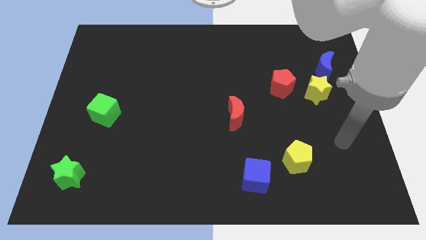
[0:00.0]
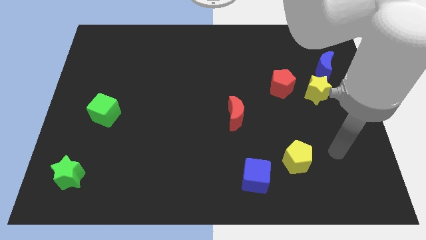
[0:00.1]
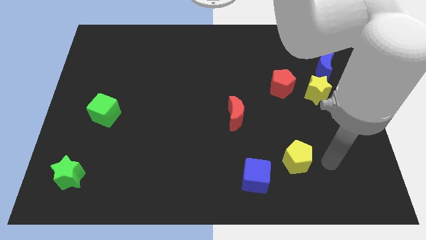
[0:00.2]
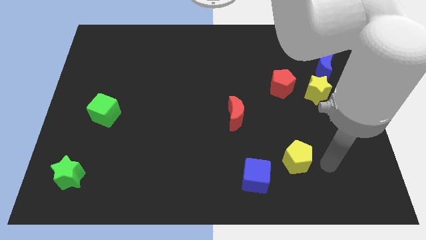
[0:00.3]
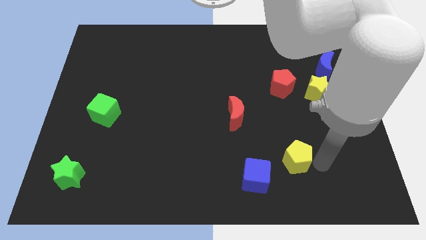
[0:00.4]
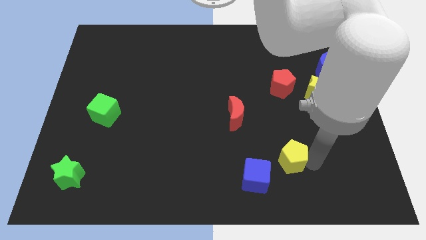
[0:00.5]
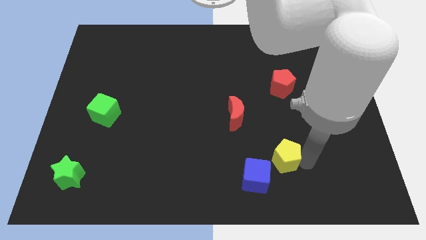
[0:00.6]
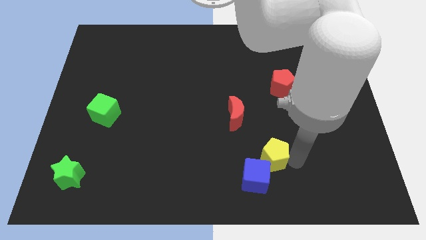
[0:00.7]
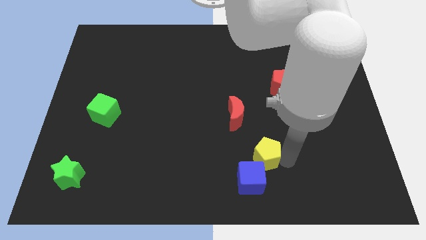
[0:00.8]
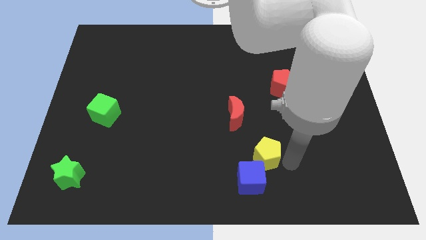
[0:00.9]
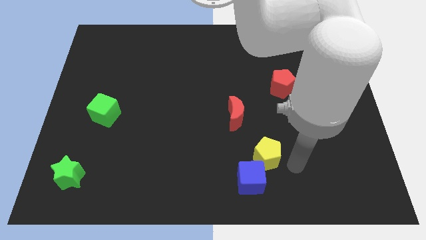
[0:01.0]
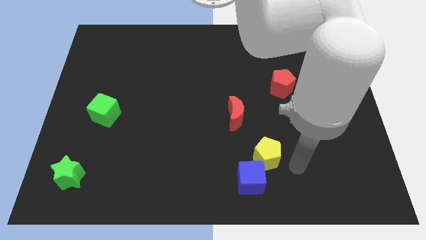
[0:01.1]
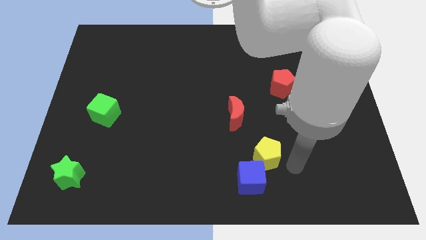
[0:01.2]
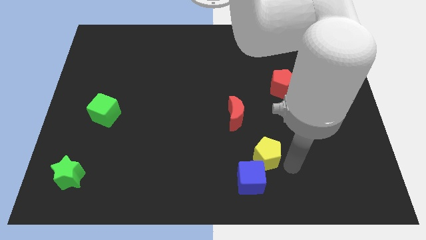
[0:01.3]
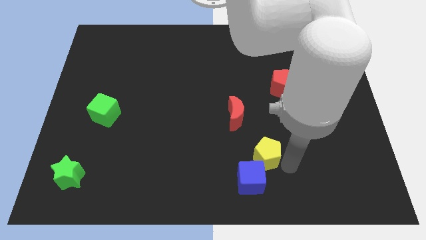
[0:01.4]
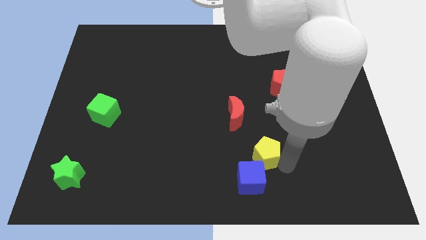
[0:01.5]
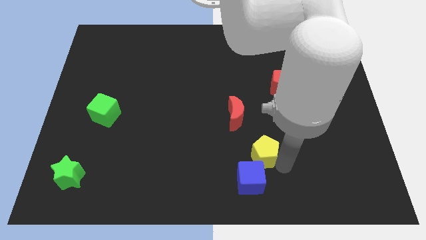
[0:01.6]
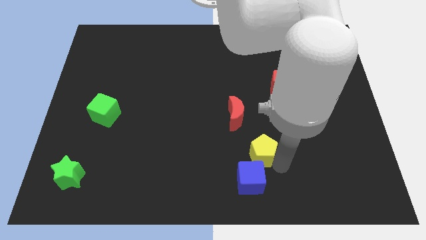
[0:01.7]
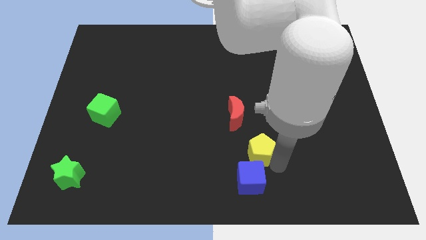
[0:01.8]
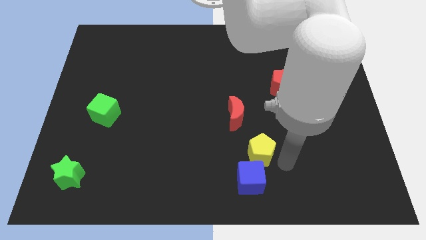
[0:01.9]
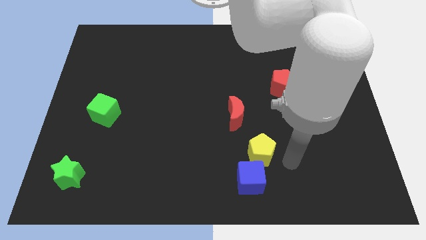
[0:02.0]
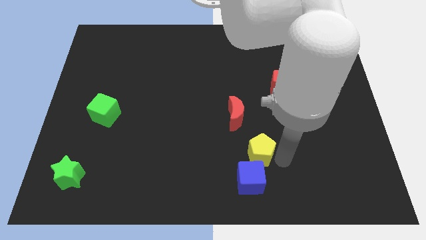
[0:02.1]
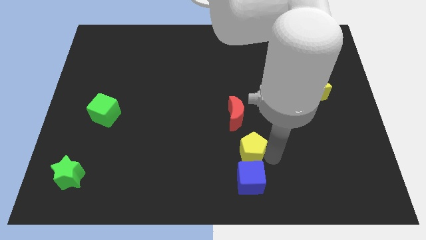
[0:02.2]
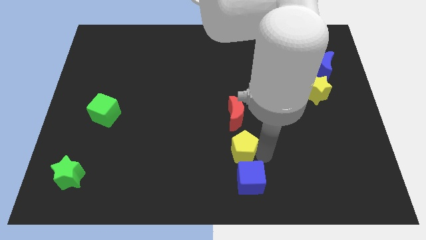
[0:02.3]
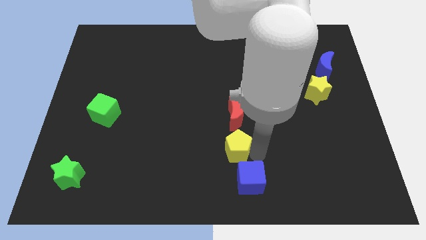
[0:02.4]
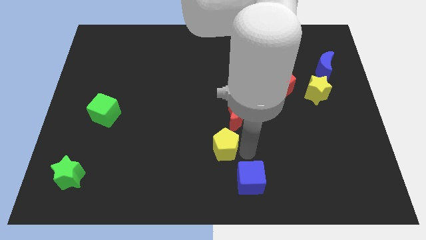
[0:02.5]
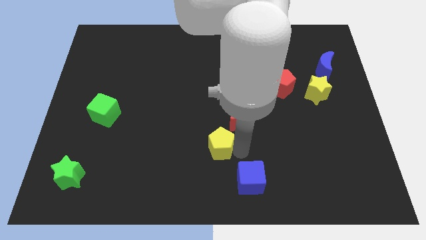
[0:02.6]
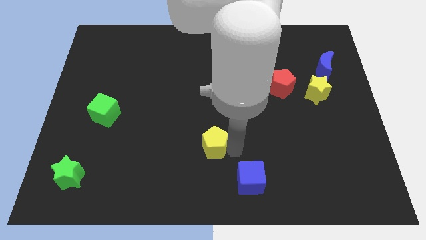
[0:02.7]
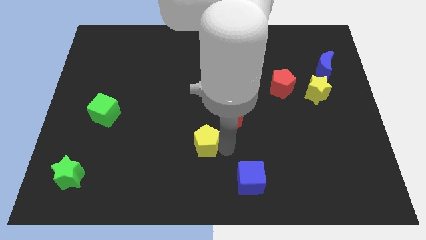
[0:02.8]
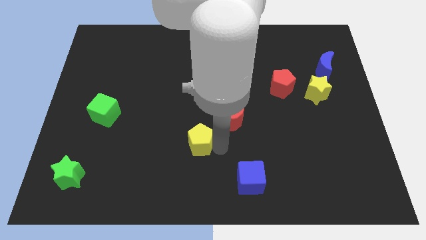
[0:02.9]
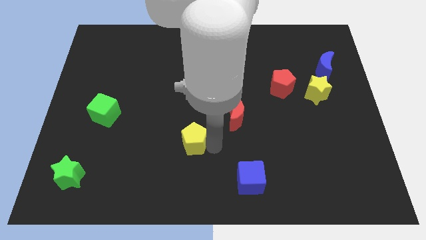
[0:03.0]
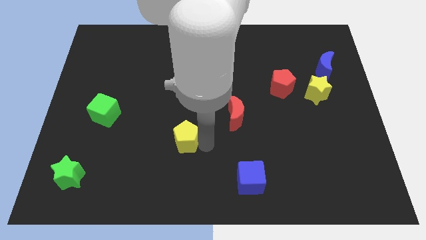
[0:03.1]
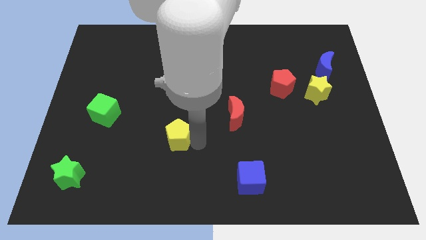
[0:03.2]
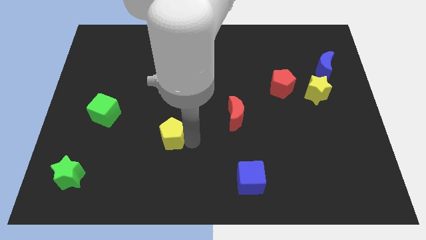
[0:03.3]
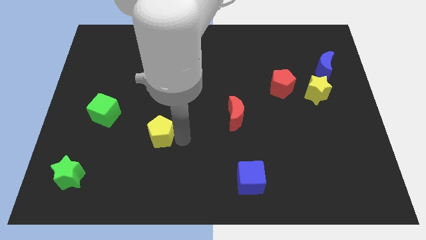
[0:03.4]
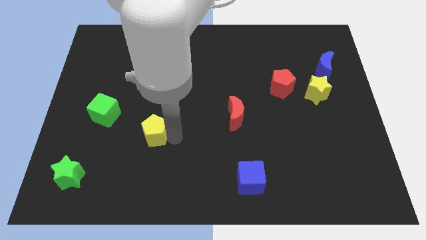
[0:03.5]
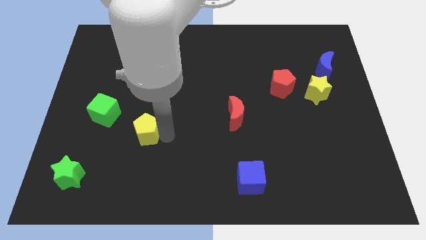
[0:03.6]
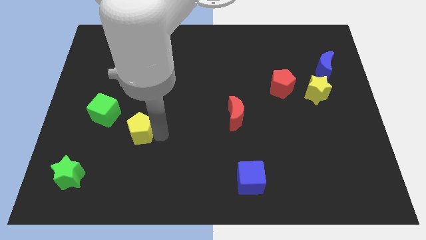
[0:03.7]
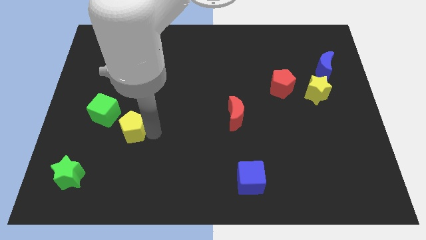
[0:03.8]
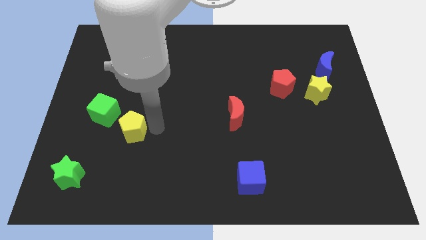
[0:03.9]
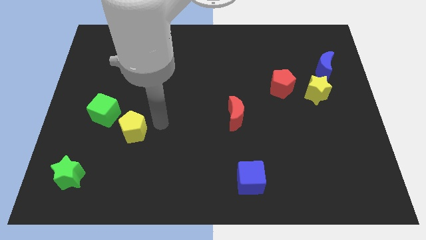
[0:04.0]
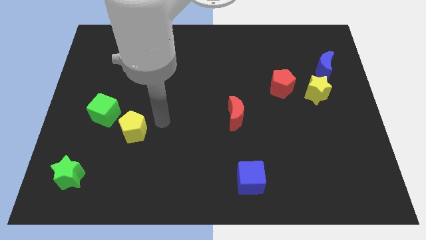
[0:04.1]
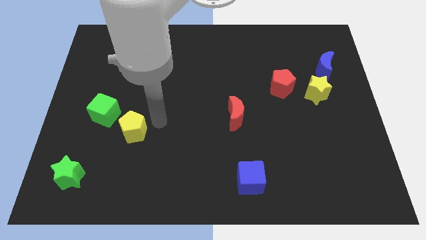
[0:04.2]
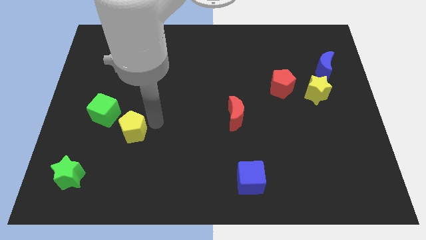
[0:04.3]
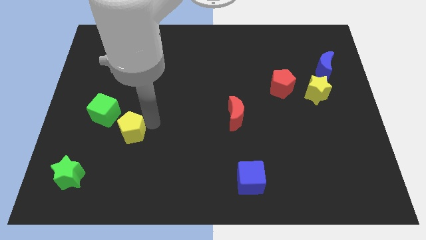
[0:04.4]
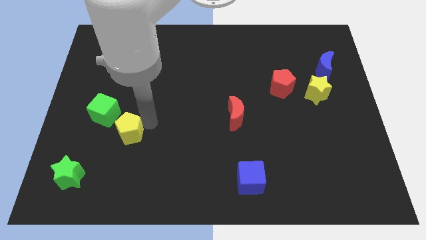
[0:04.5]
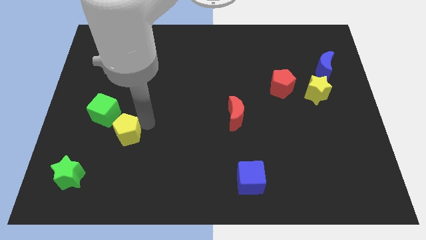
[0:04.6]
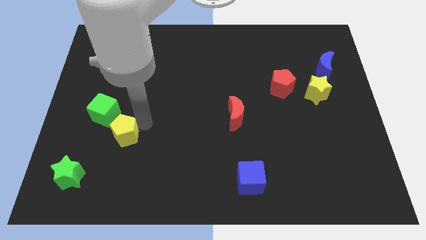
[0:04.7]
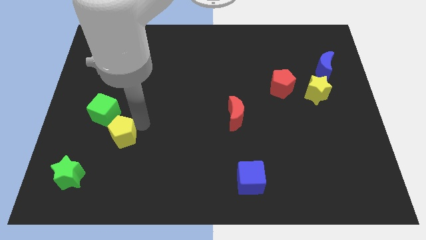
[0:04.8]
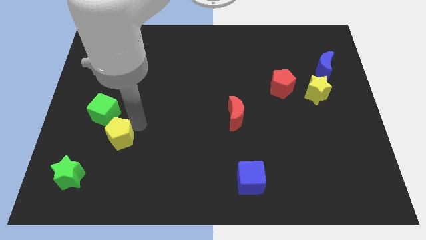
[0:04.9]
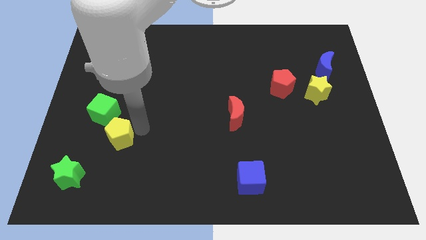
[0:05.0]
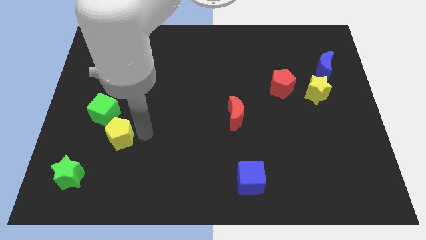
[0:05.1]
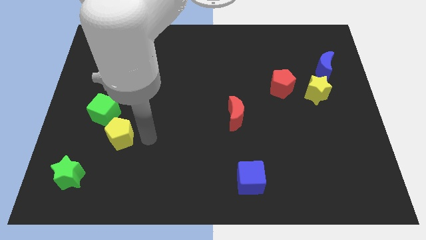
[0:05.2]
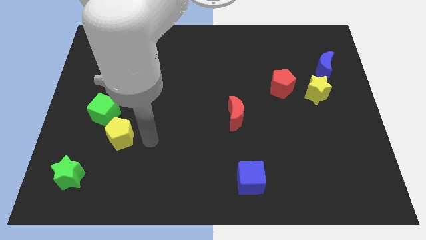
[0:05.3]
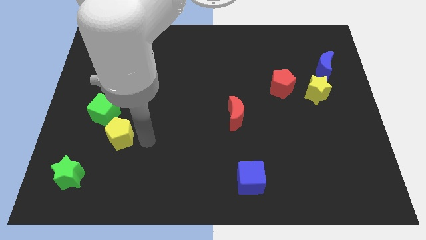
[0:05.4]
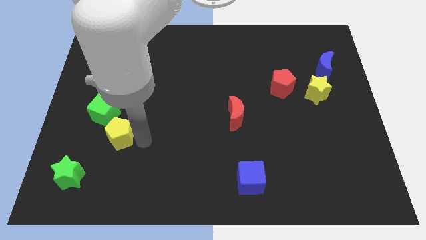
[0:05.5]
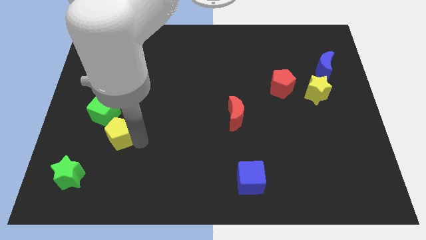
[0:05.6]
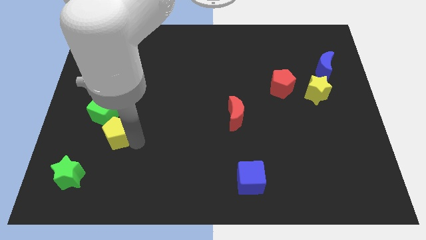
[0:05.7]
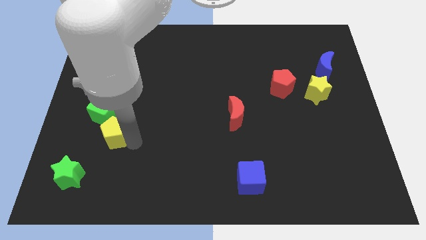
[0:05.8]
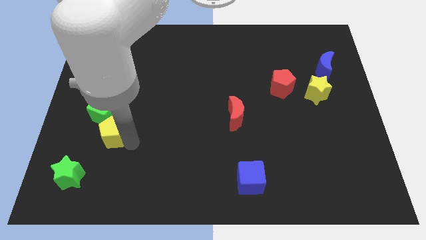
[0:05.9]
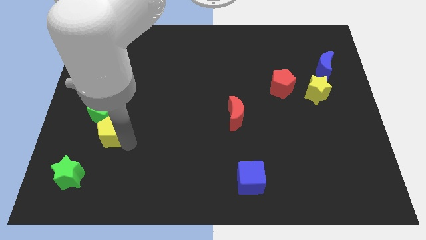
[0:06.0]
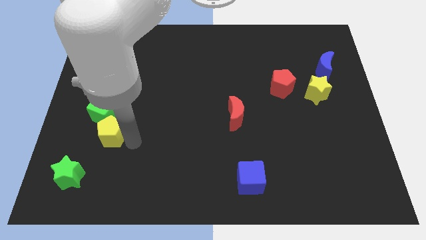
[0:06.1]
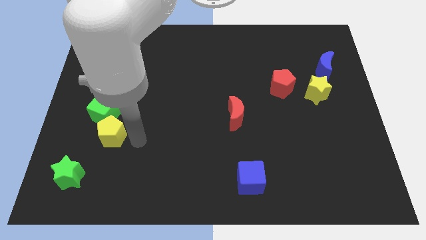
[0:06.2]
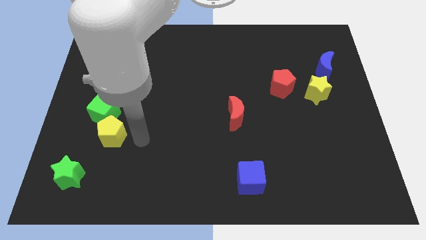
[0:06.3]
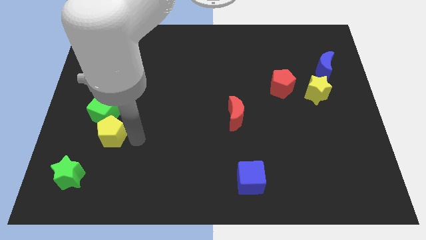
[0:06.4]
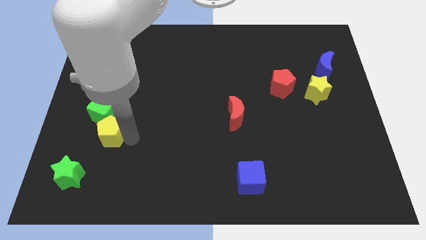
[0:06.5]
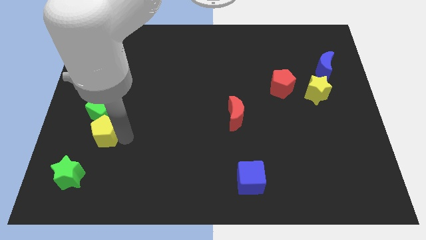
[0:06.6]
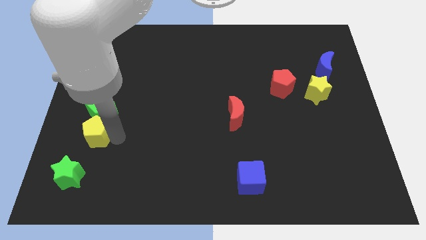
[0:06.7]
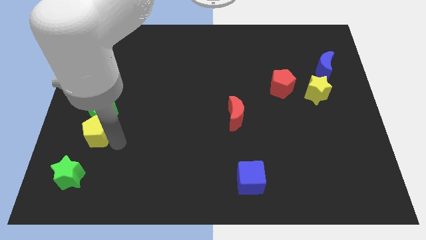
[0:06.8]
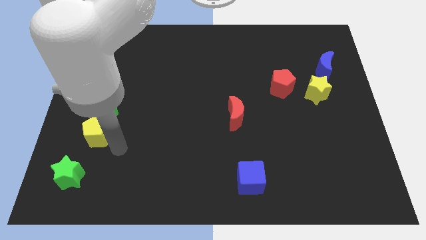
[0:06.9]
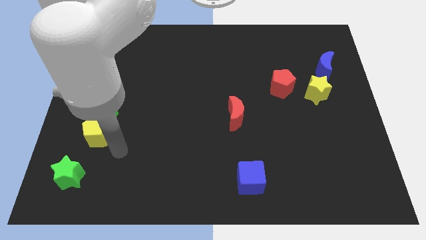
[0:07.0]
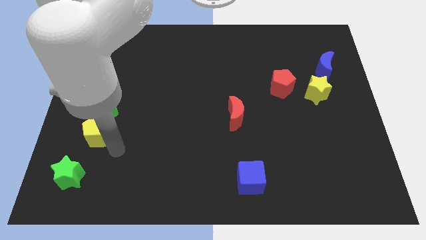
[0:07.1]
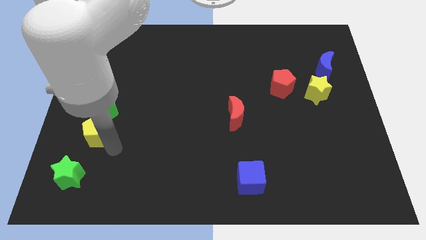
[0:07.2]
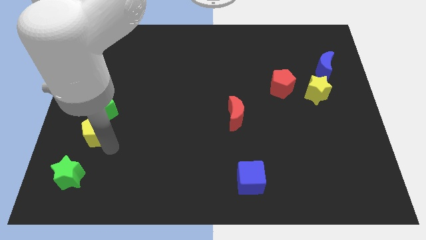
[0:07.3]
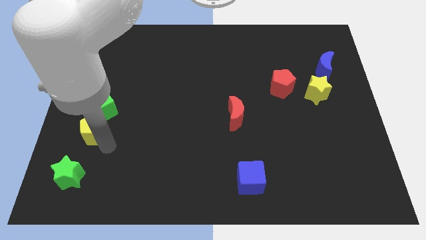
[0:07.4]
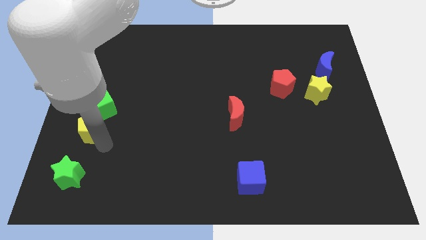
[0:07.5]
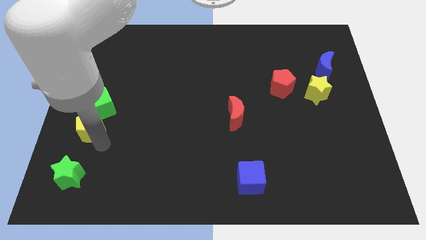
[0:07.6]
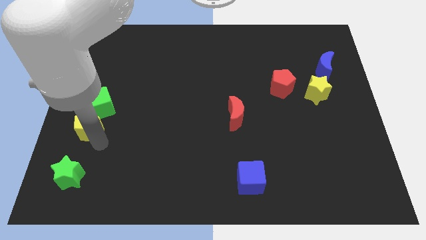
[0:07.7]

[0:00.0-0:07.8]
push the yellow pentagon to the left side of the board
